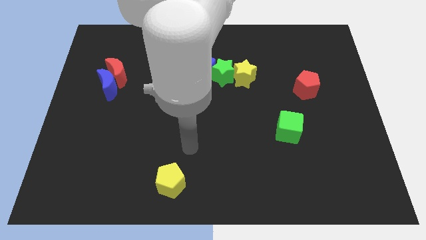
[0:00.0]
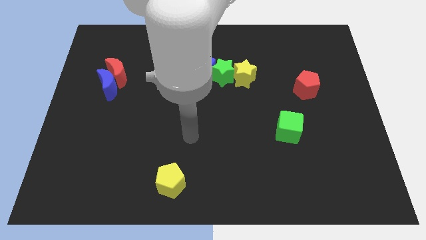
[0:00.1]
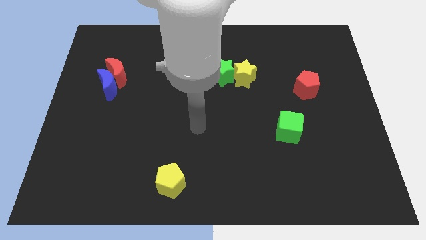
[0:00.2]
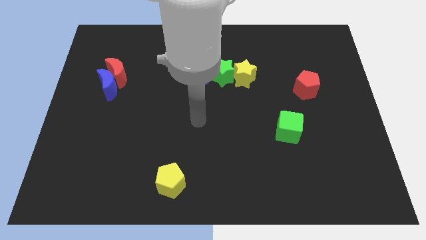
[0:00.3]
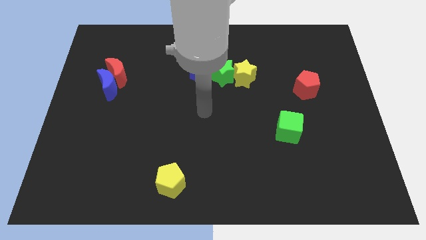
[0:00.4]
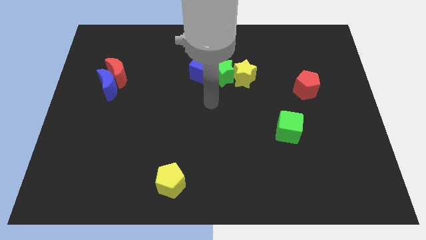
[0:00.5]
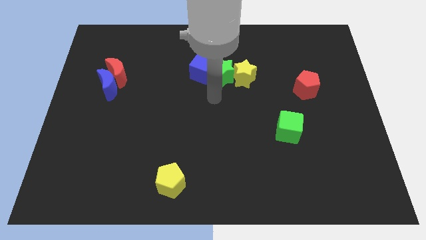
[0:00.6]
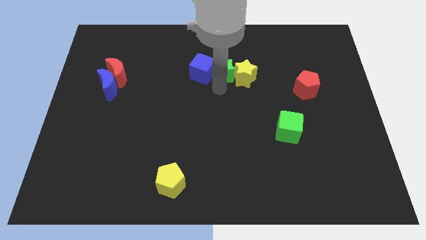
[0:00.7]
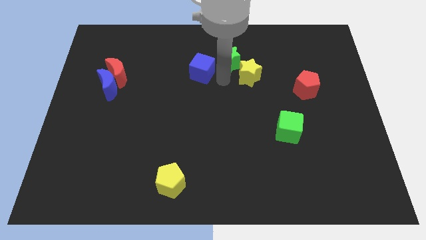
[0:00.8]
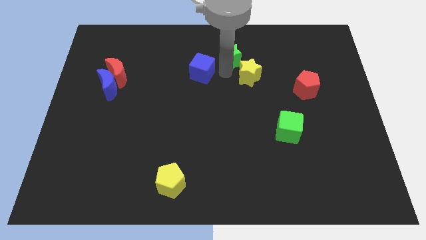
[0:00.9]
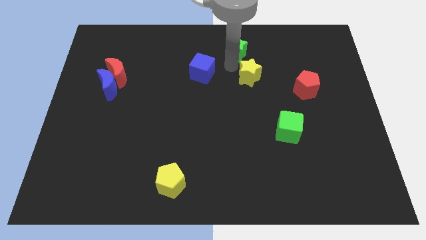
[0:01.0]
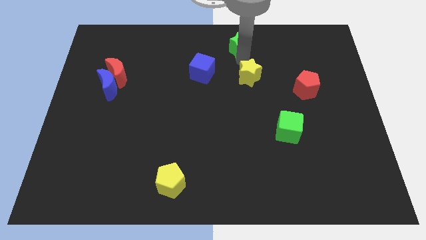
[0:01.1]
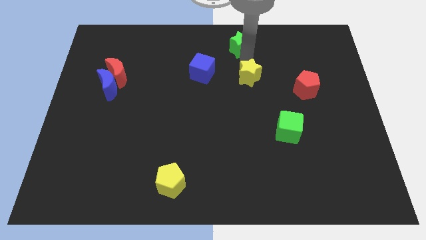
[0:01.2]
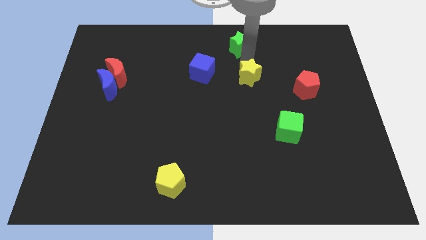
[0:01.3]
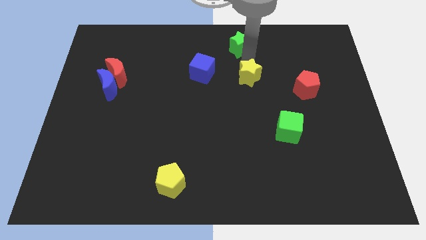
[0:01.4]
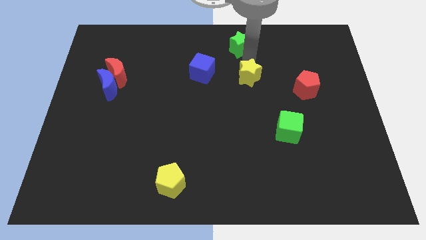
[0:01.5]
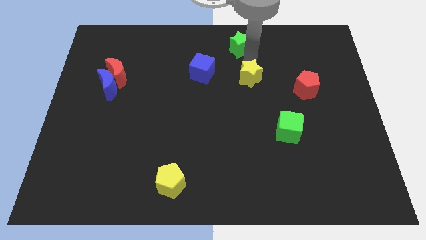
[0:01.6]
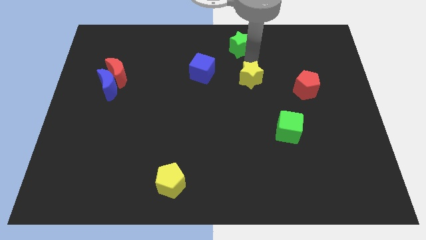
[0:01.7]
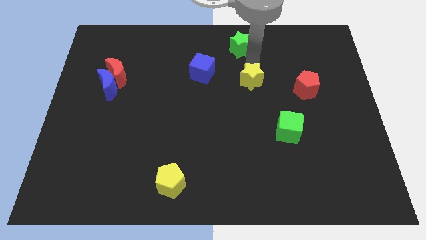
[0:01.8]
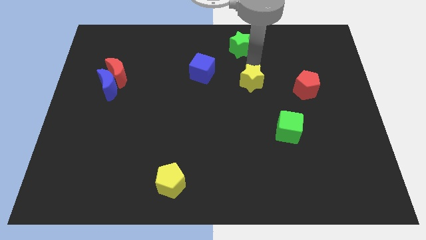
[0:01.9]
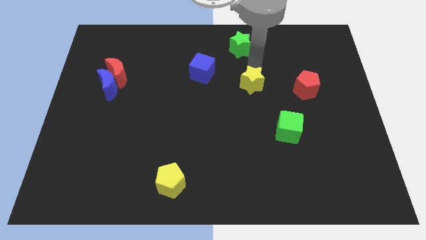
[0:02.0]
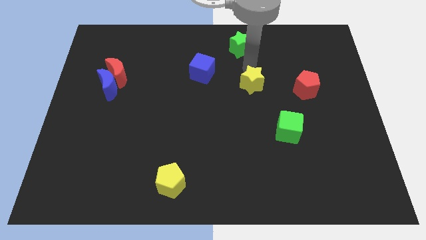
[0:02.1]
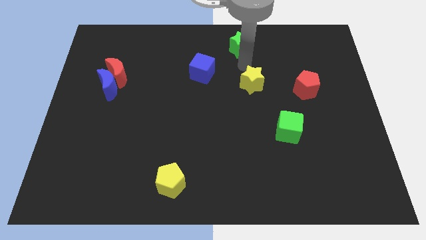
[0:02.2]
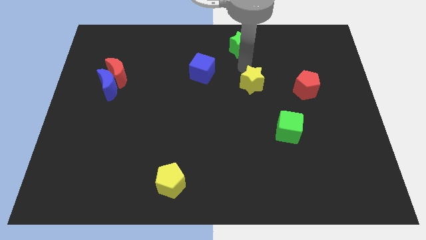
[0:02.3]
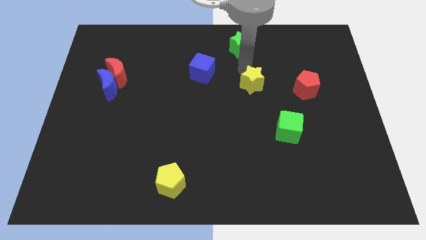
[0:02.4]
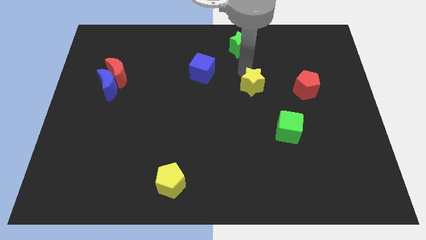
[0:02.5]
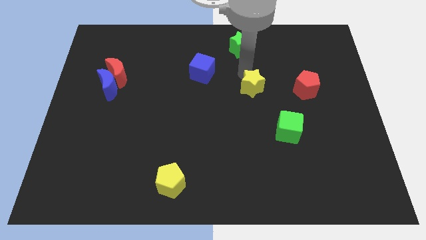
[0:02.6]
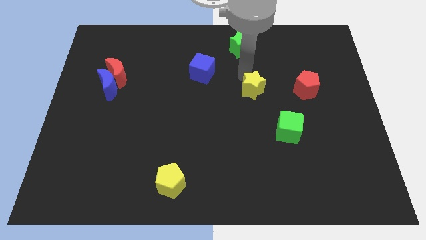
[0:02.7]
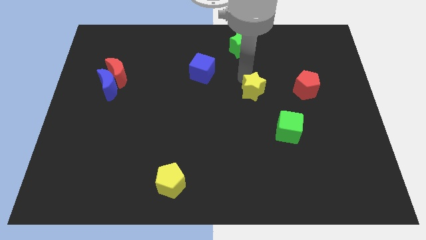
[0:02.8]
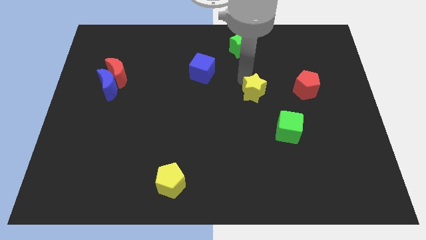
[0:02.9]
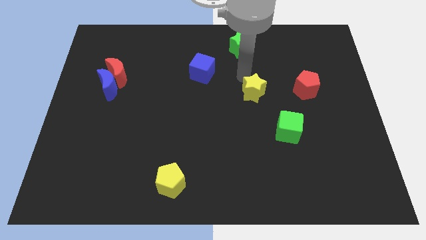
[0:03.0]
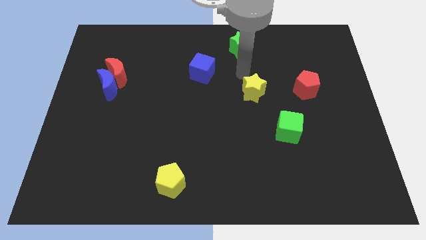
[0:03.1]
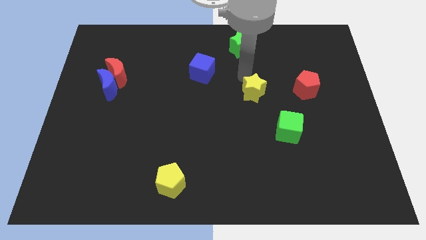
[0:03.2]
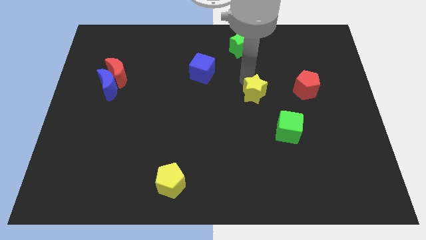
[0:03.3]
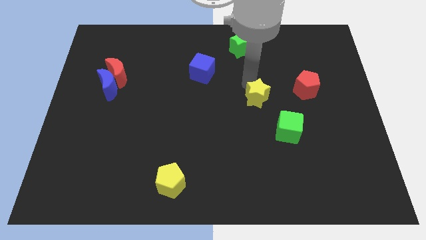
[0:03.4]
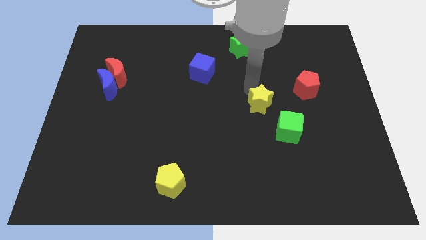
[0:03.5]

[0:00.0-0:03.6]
push the yellow star slightly downwards and to the right

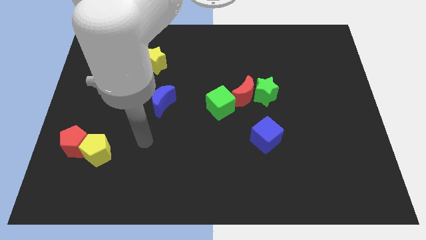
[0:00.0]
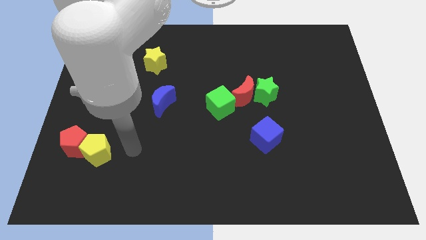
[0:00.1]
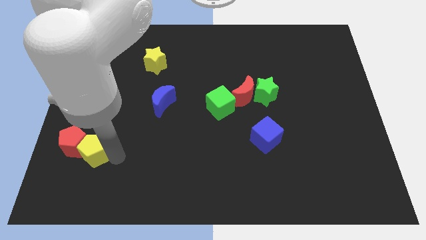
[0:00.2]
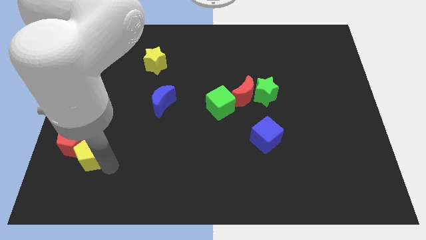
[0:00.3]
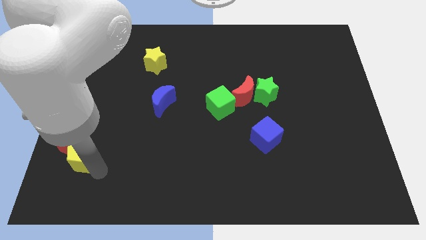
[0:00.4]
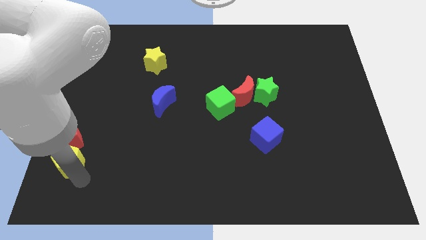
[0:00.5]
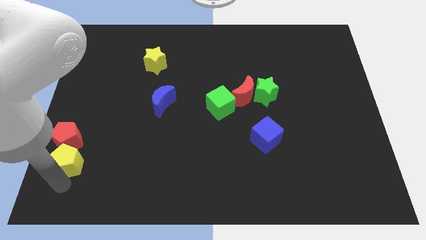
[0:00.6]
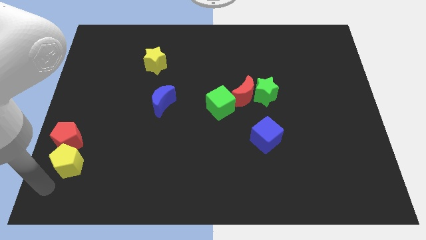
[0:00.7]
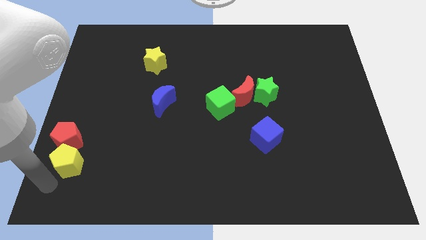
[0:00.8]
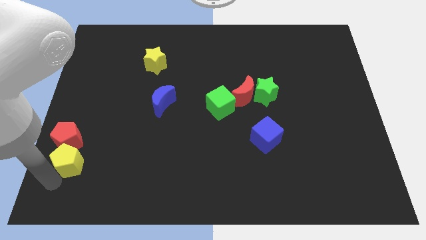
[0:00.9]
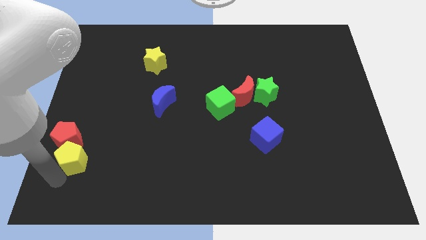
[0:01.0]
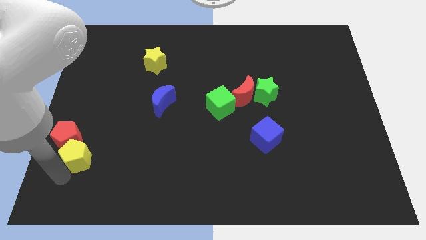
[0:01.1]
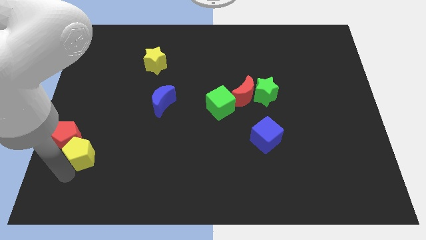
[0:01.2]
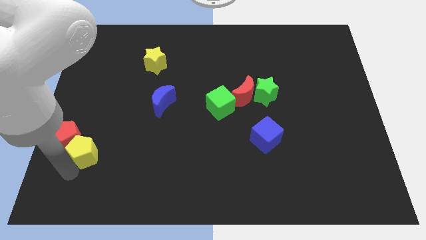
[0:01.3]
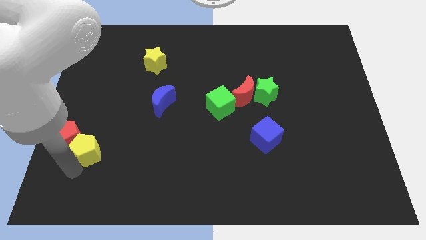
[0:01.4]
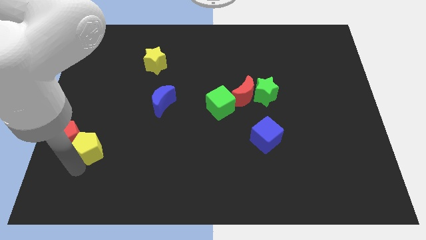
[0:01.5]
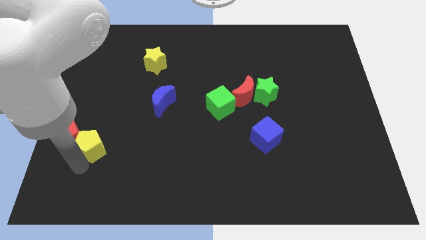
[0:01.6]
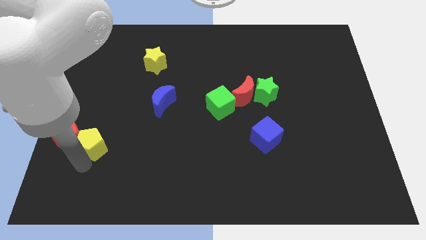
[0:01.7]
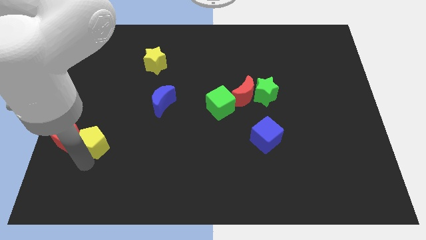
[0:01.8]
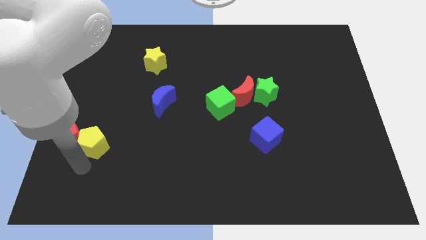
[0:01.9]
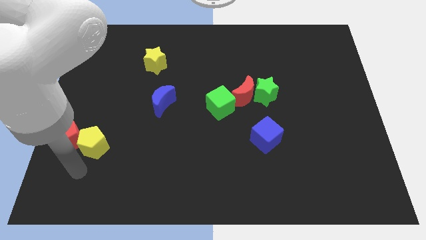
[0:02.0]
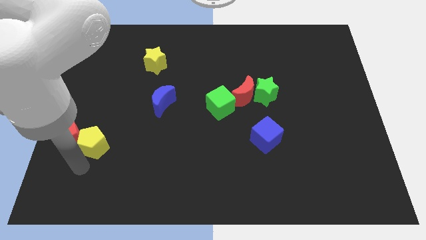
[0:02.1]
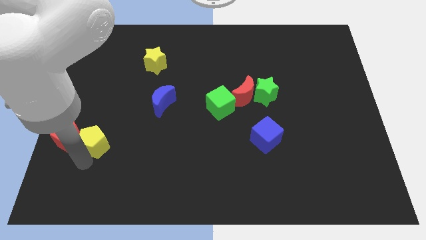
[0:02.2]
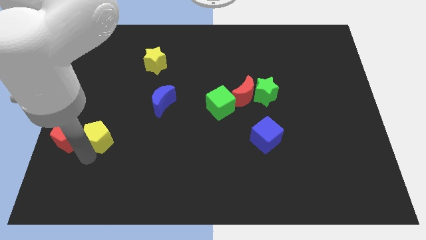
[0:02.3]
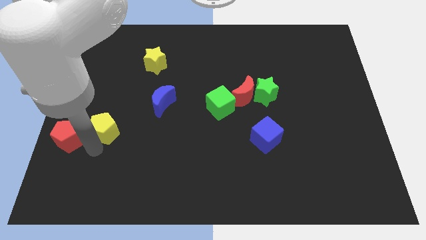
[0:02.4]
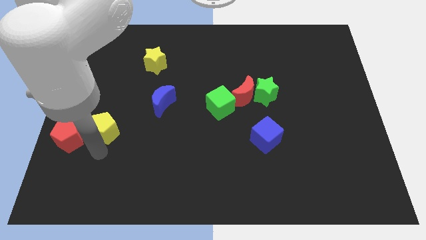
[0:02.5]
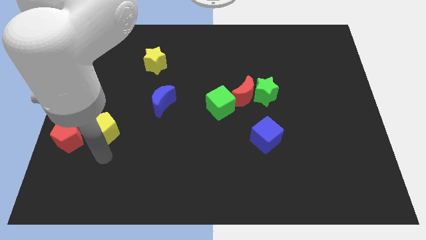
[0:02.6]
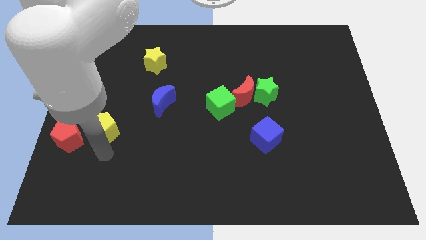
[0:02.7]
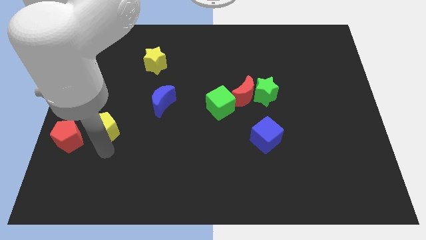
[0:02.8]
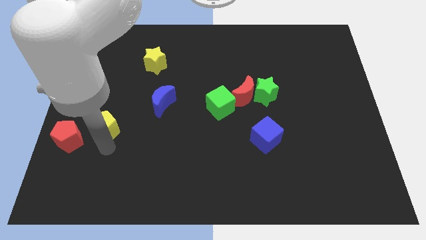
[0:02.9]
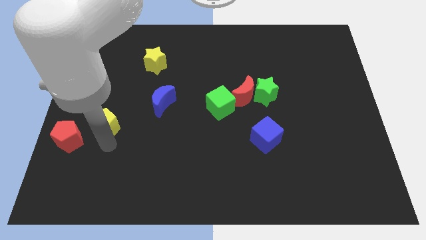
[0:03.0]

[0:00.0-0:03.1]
slide the yellow pentagon upwards somewhat

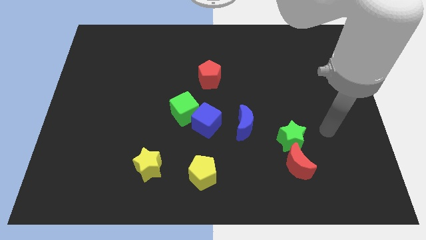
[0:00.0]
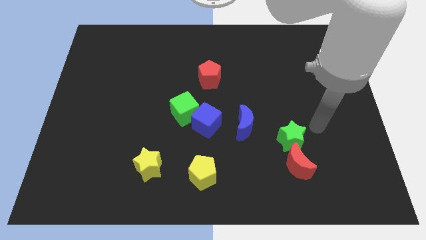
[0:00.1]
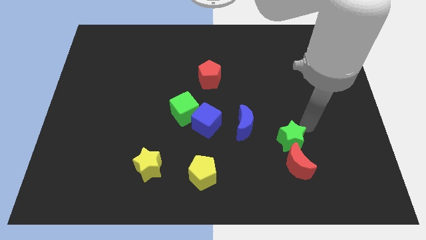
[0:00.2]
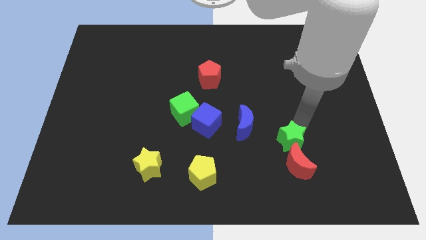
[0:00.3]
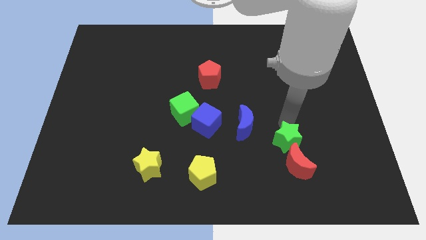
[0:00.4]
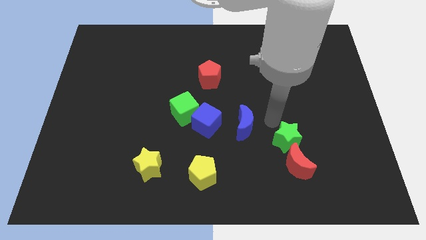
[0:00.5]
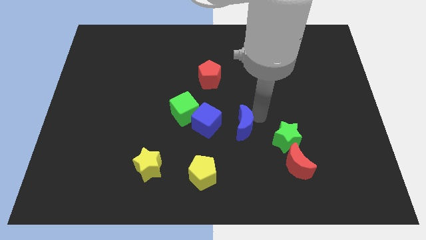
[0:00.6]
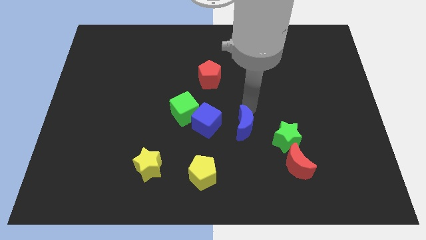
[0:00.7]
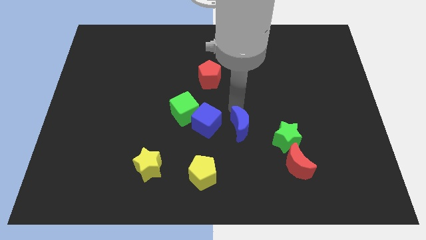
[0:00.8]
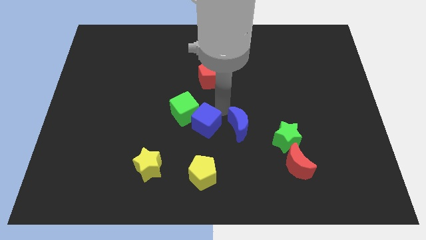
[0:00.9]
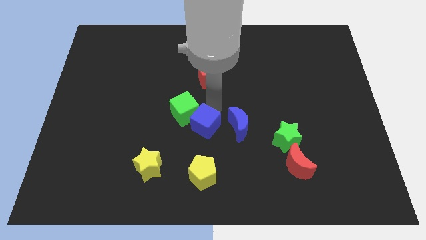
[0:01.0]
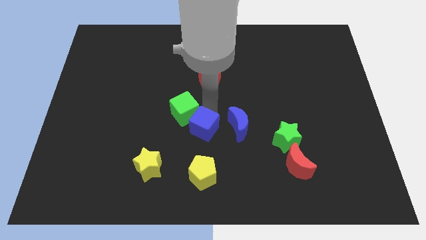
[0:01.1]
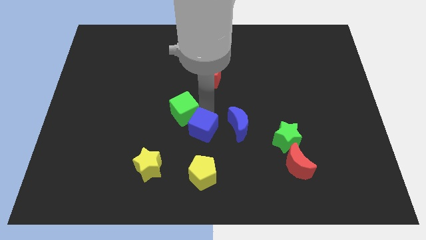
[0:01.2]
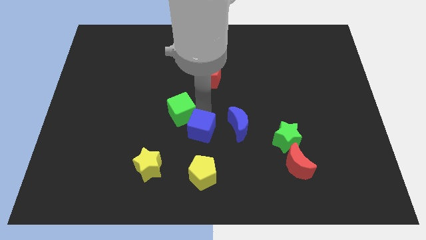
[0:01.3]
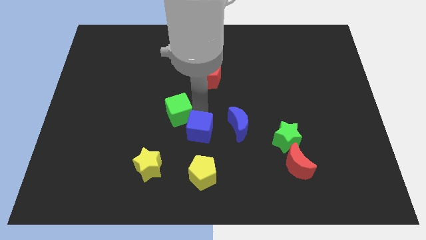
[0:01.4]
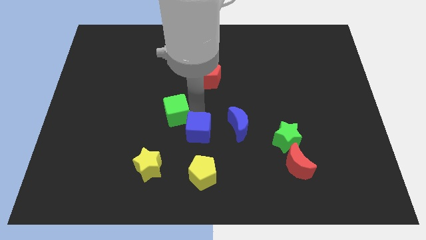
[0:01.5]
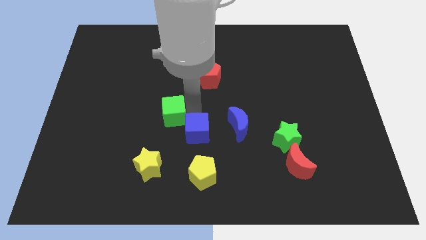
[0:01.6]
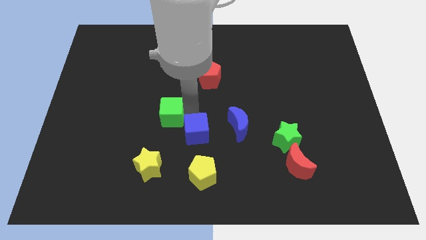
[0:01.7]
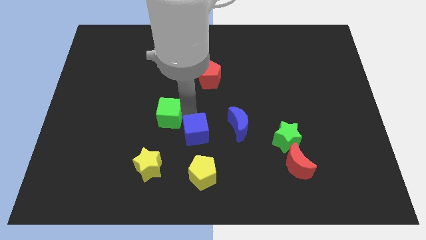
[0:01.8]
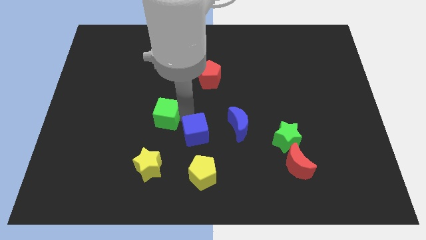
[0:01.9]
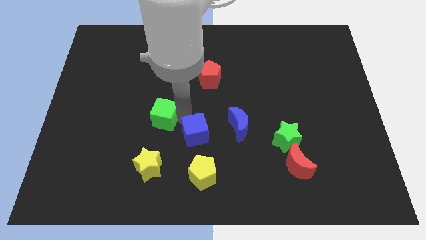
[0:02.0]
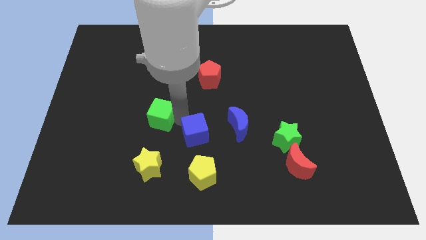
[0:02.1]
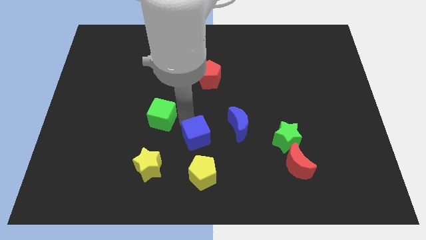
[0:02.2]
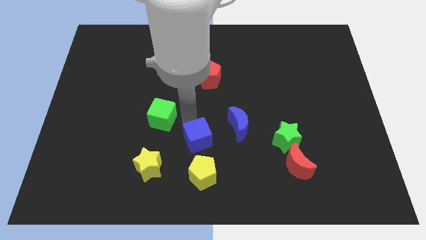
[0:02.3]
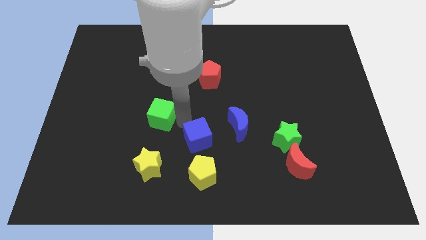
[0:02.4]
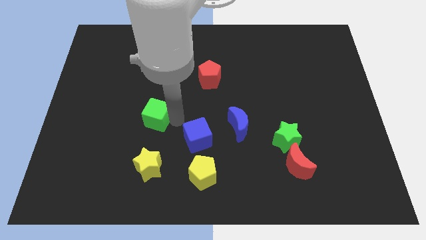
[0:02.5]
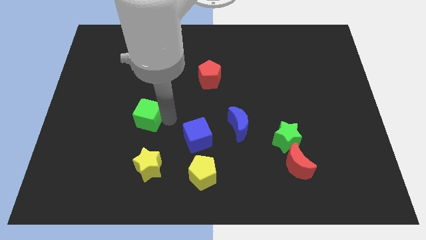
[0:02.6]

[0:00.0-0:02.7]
push the green cube to the left somewhat
